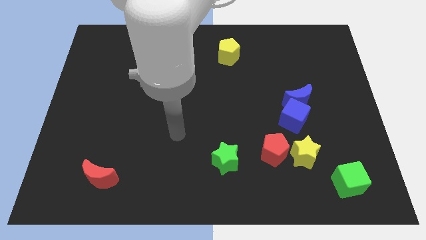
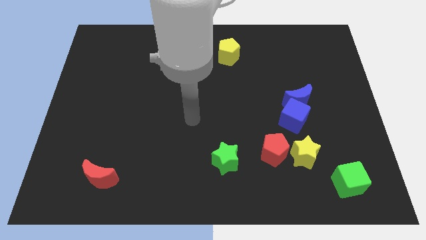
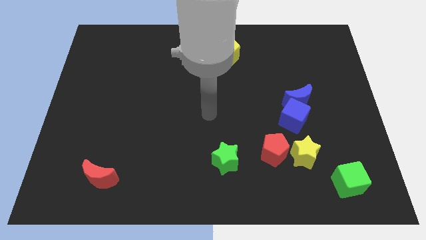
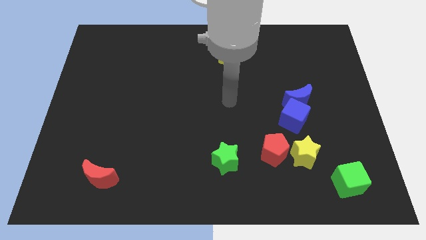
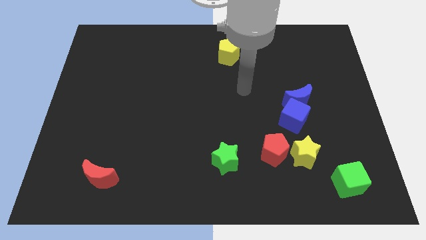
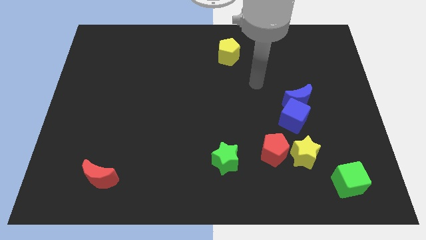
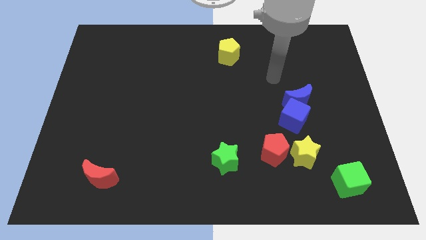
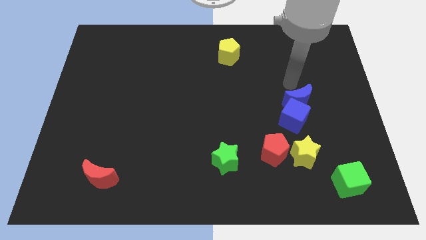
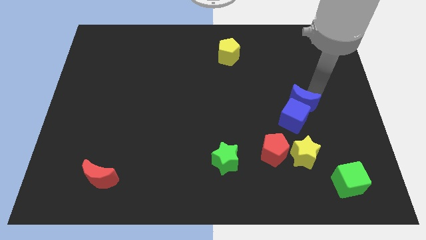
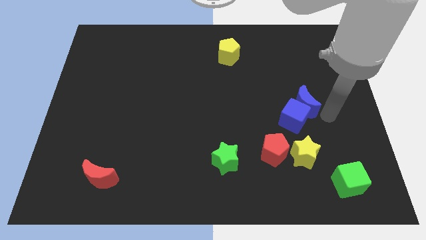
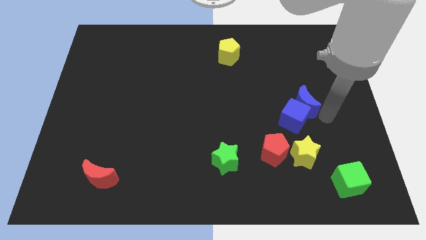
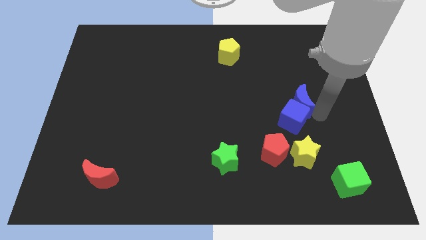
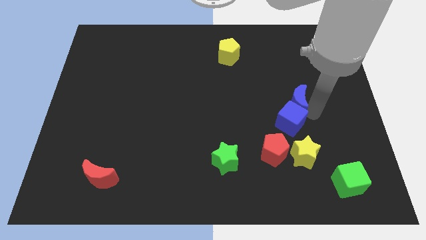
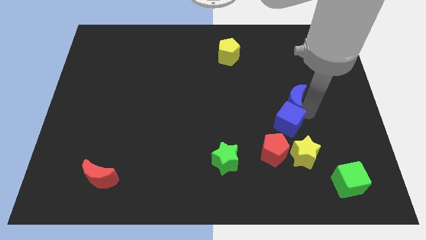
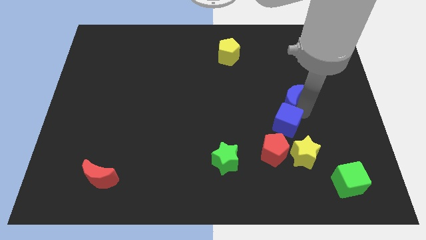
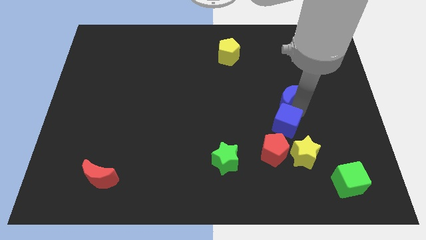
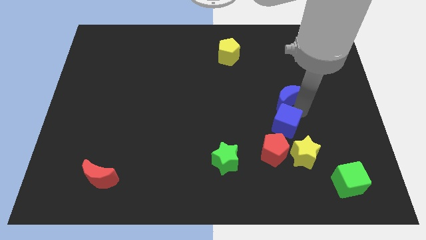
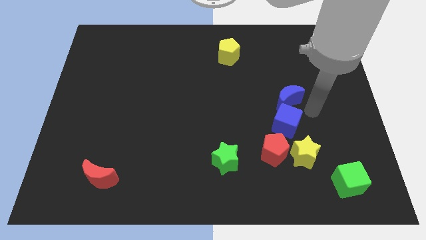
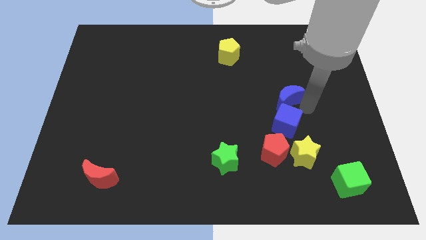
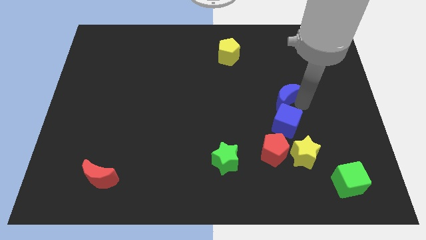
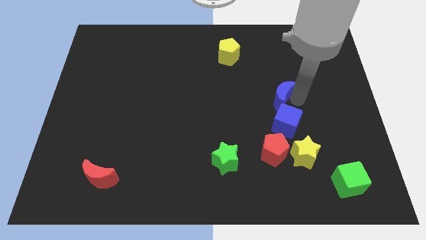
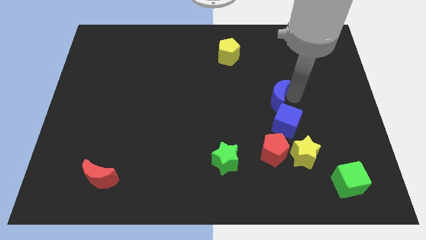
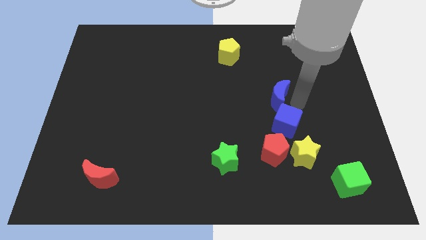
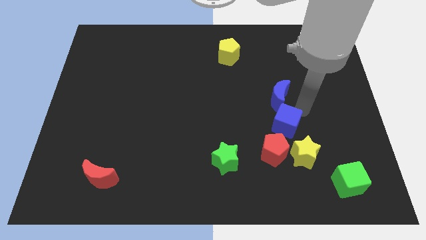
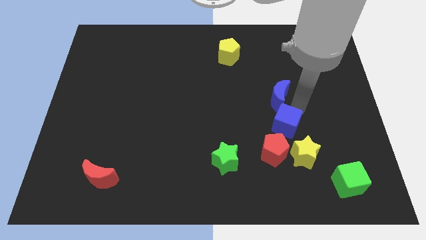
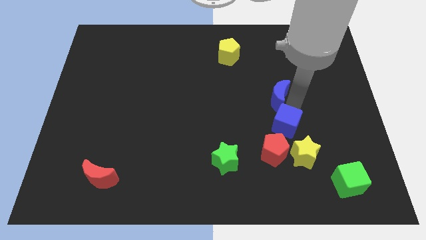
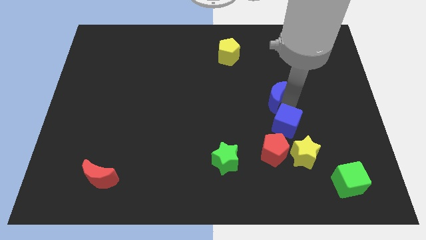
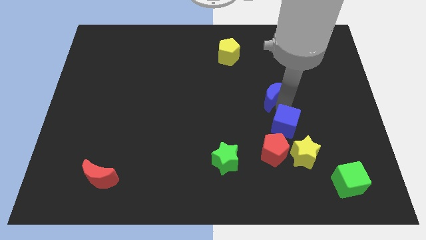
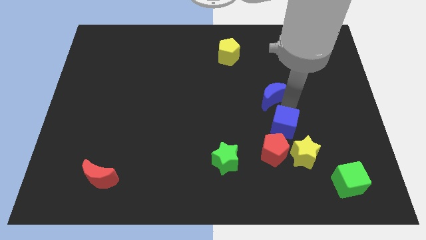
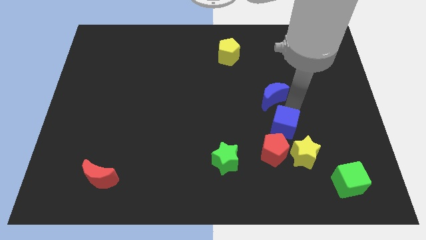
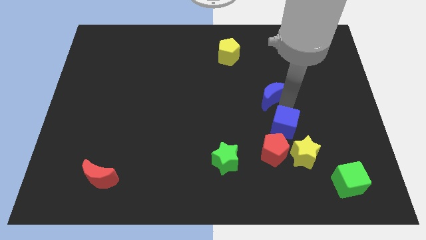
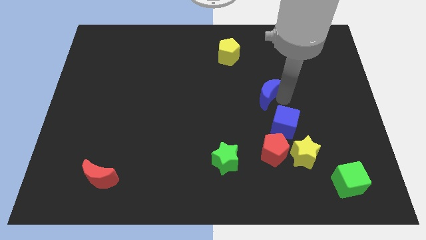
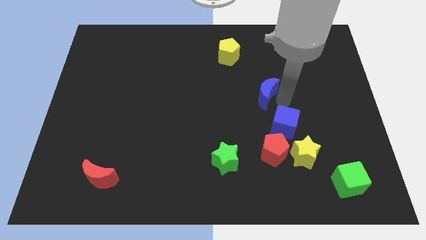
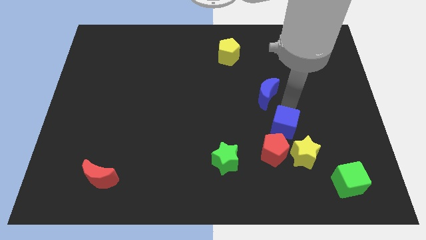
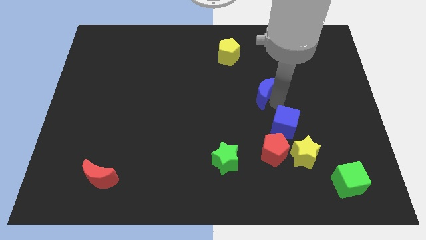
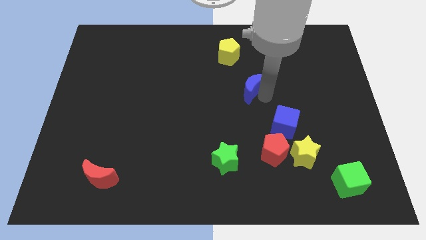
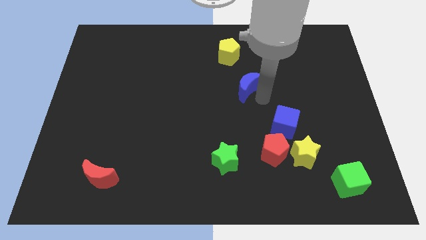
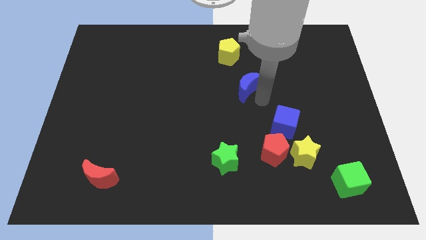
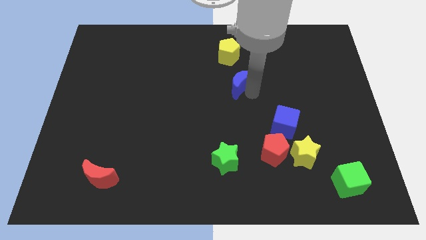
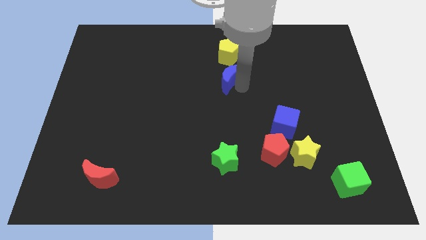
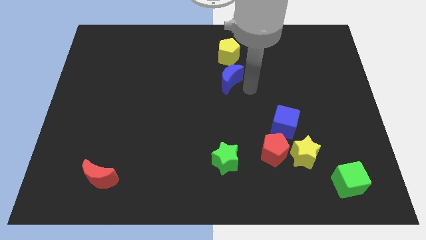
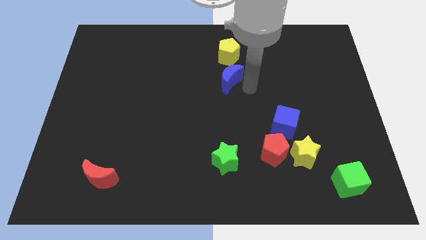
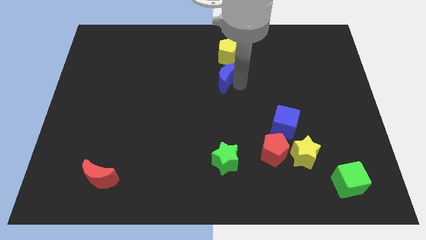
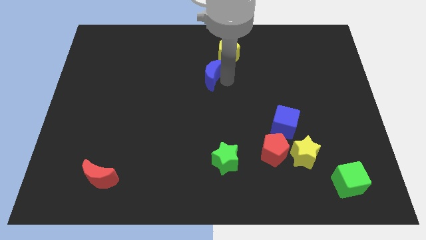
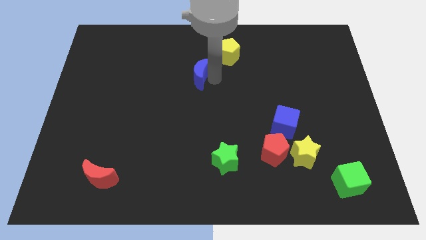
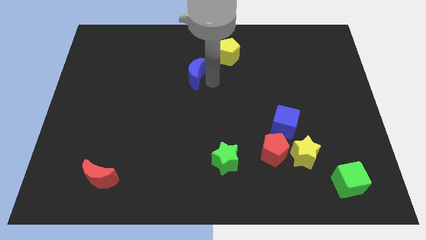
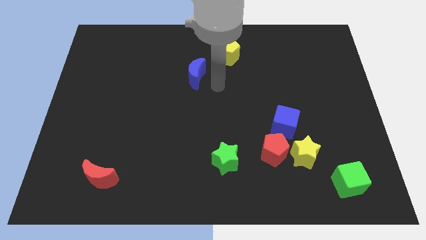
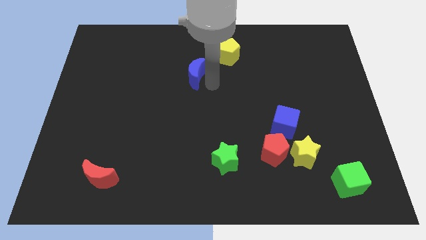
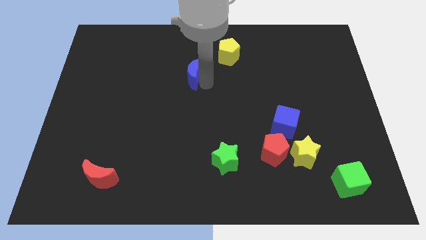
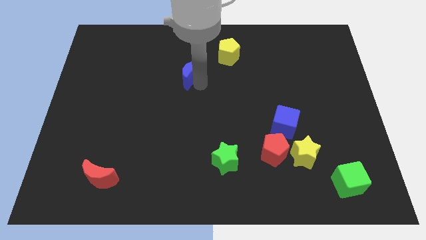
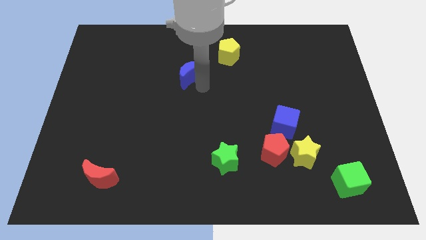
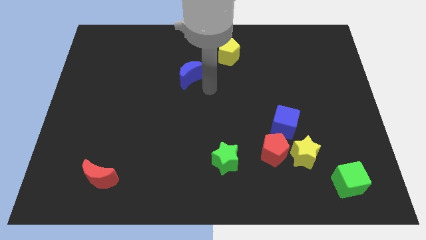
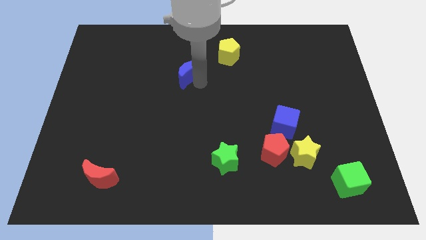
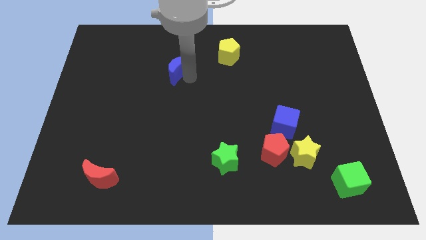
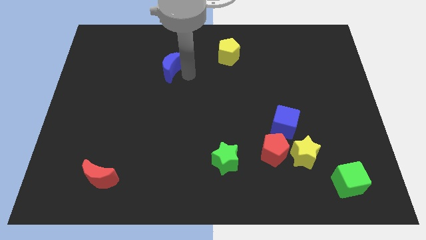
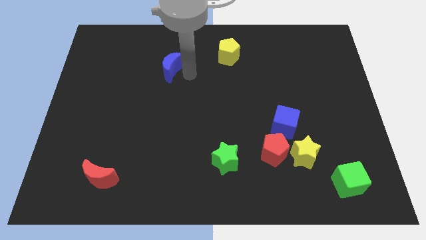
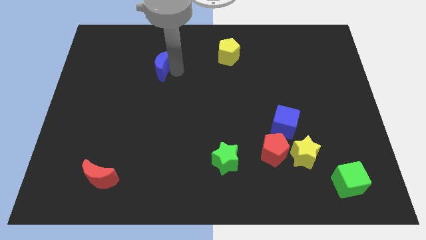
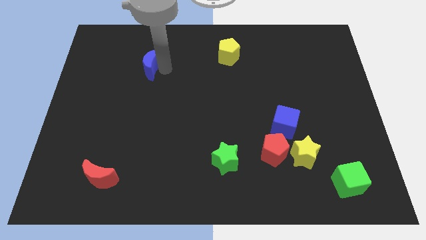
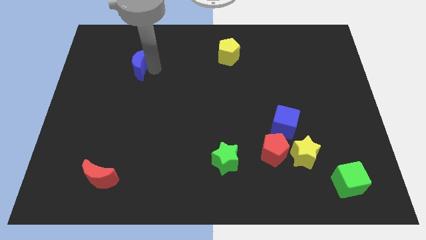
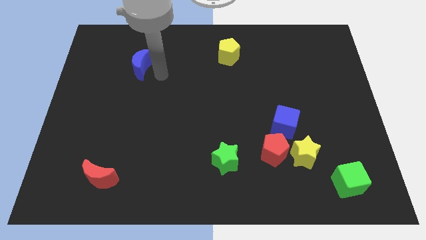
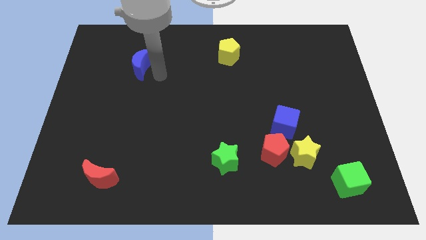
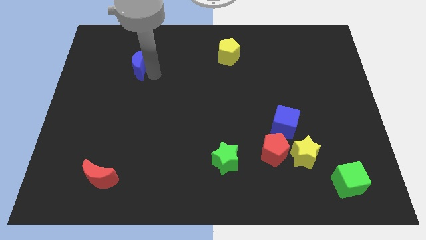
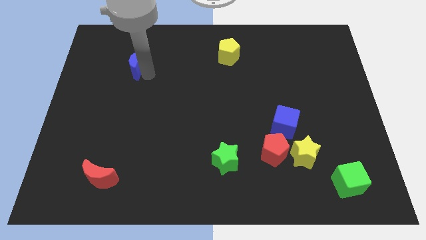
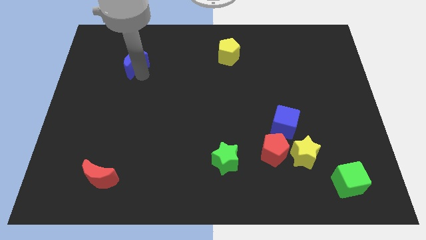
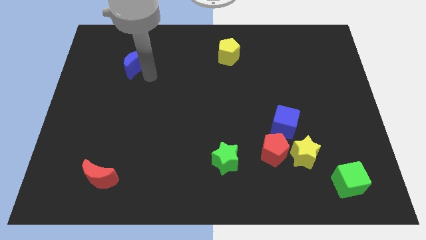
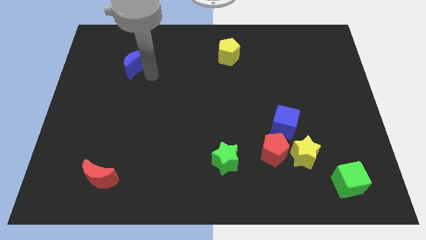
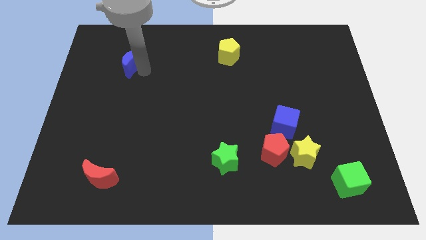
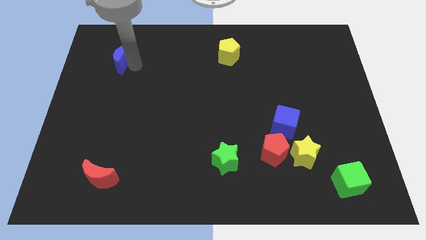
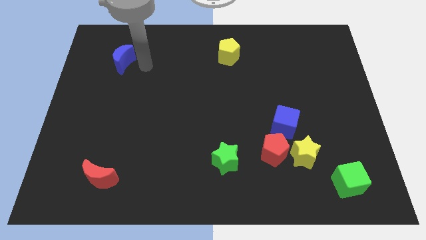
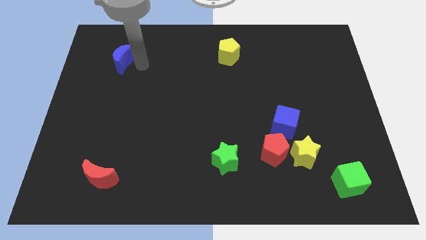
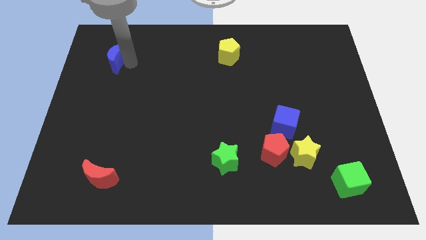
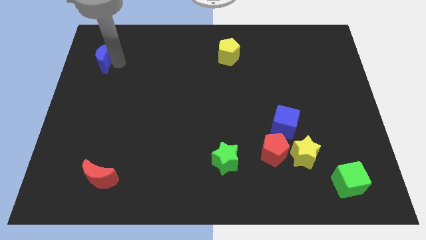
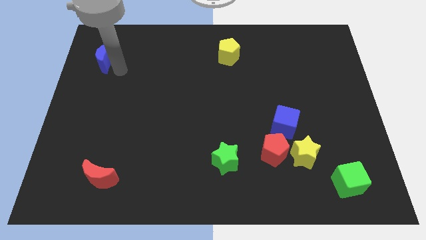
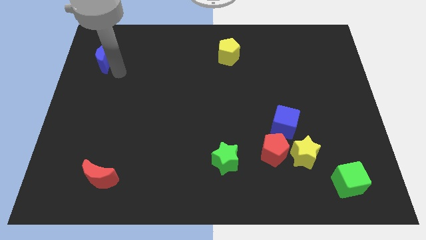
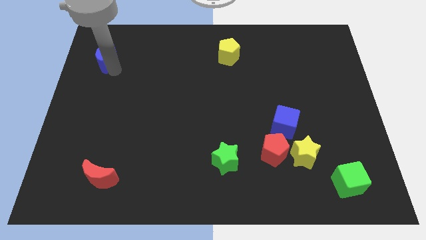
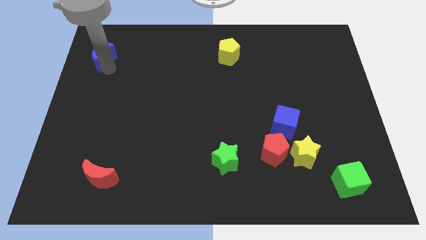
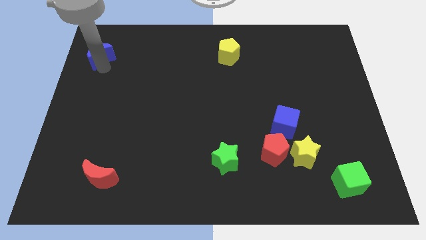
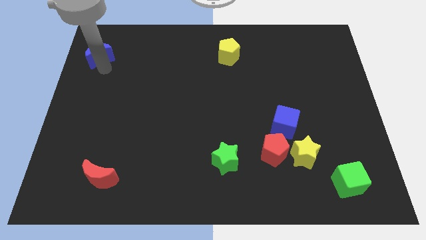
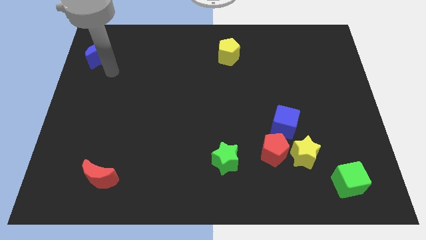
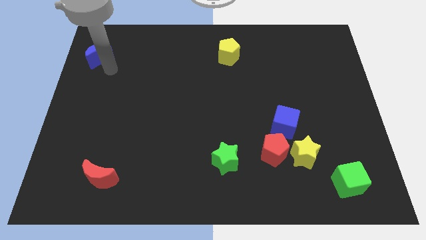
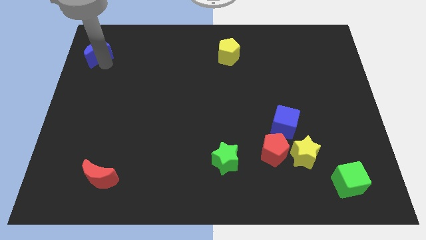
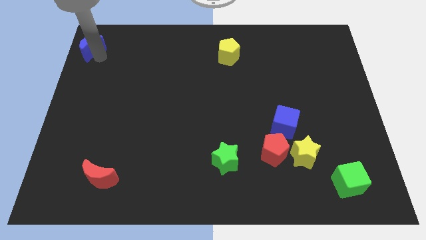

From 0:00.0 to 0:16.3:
push the blue moon to the top left of the board
